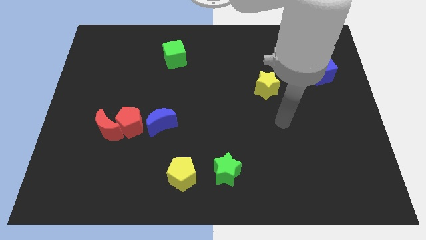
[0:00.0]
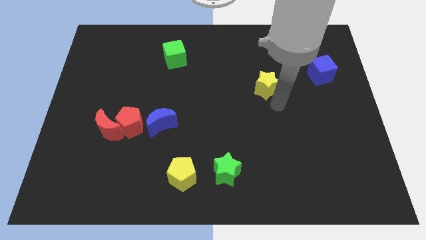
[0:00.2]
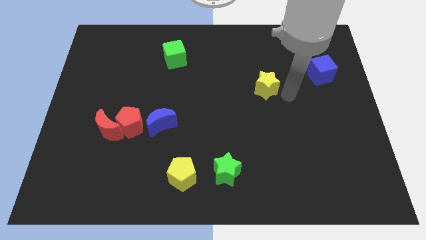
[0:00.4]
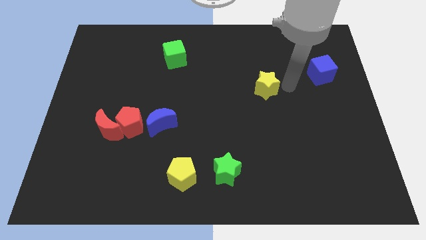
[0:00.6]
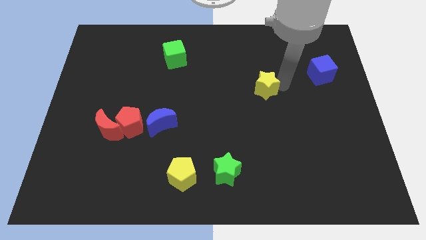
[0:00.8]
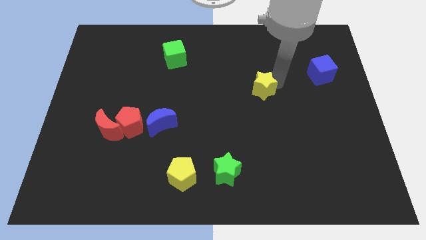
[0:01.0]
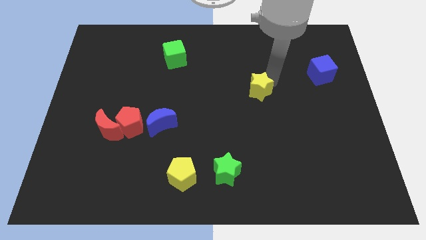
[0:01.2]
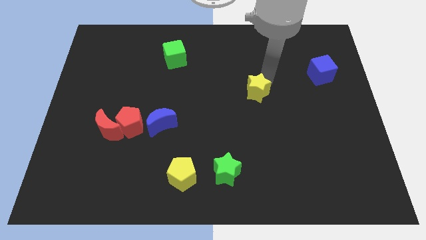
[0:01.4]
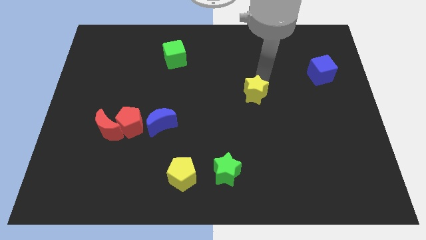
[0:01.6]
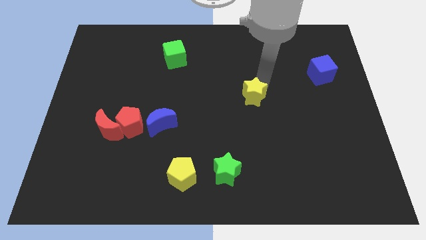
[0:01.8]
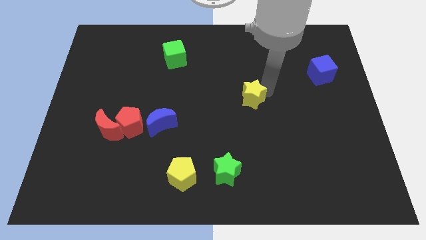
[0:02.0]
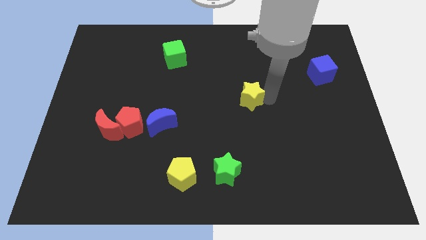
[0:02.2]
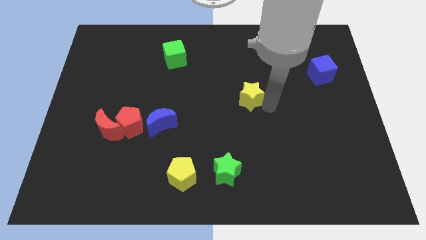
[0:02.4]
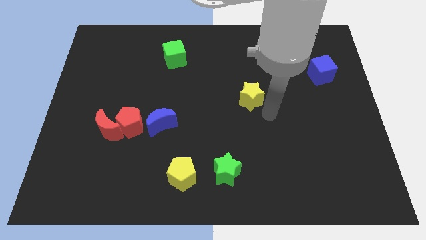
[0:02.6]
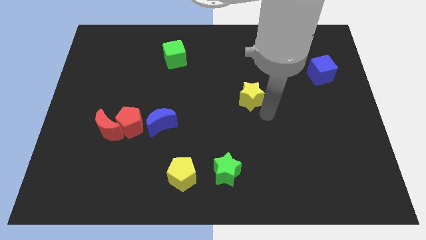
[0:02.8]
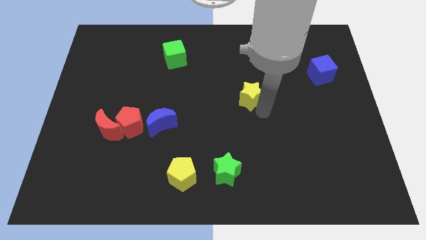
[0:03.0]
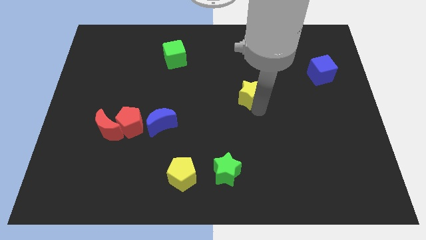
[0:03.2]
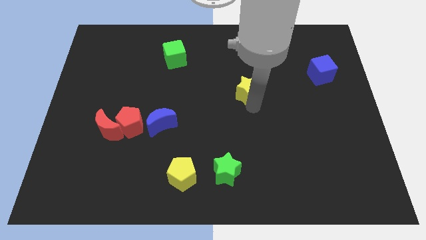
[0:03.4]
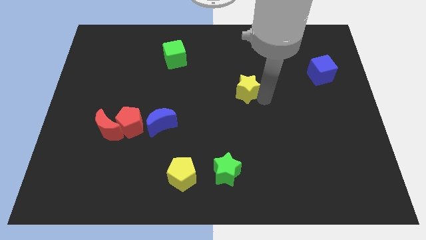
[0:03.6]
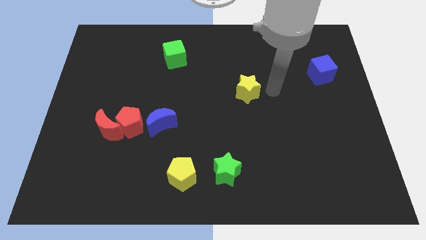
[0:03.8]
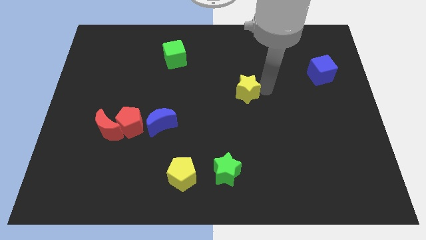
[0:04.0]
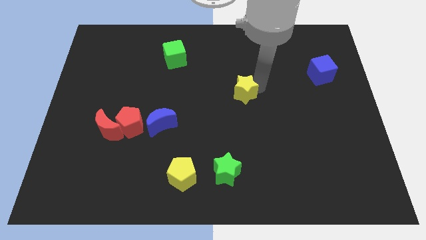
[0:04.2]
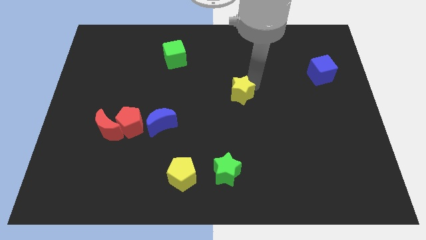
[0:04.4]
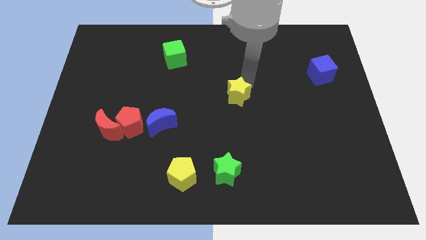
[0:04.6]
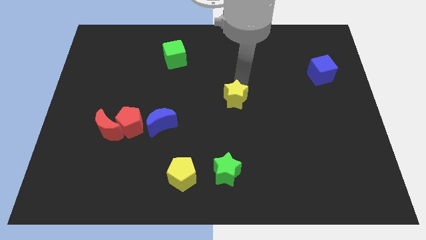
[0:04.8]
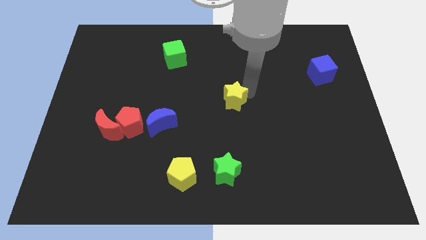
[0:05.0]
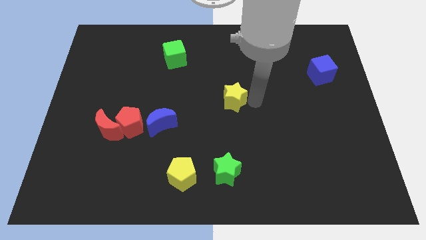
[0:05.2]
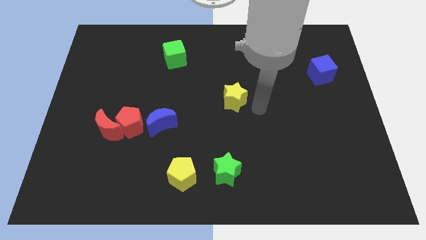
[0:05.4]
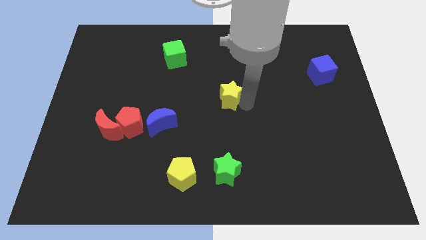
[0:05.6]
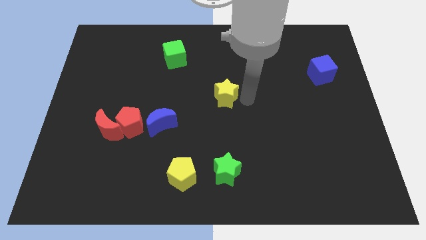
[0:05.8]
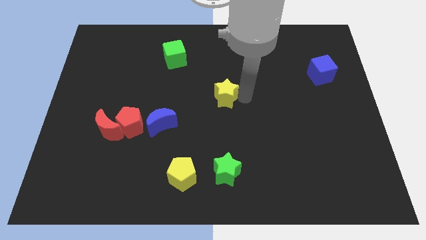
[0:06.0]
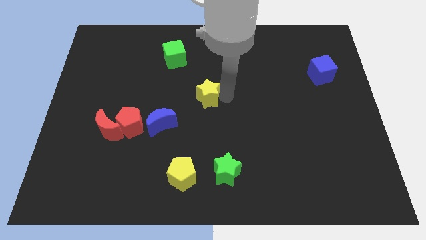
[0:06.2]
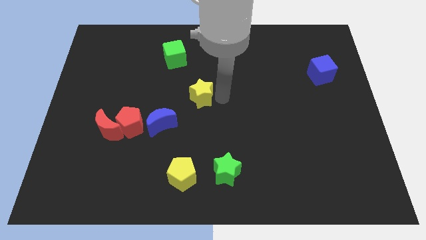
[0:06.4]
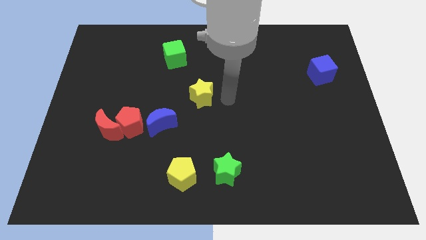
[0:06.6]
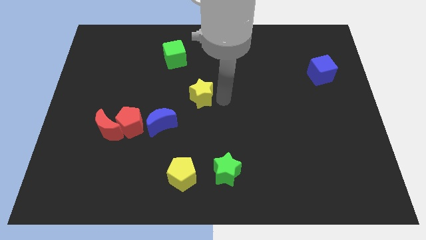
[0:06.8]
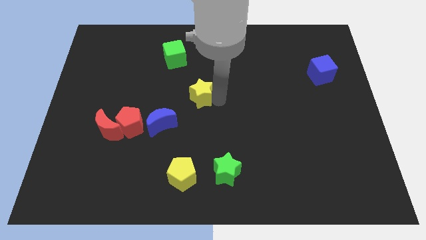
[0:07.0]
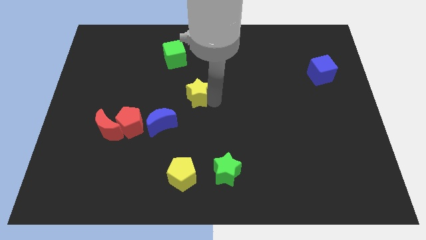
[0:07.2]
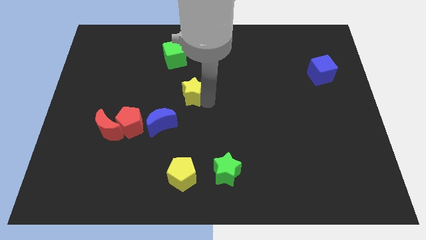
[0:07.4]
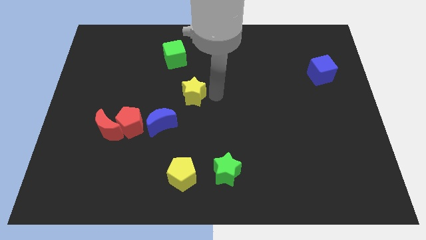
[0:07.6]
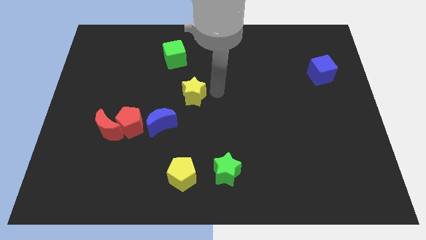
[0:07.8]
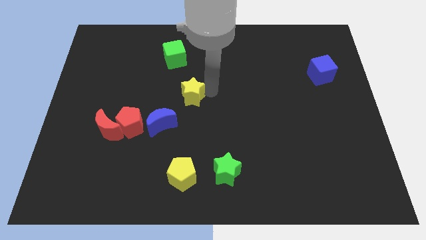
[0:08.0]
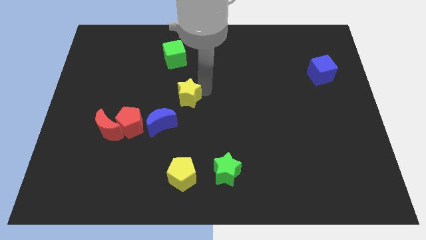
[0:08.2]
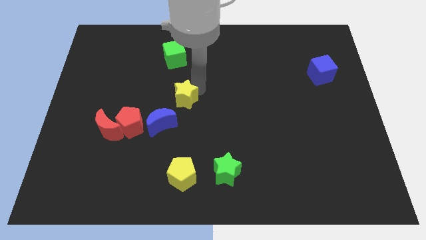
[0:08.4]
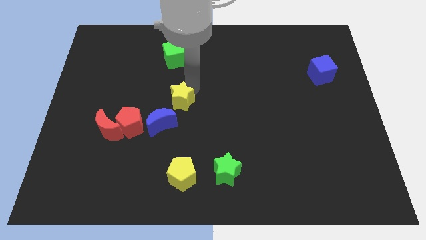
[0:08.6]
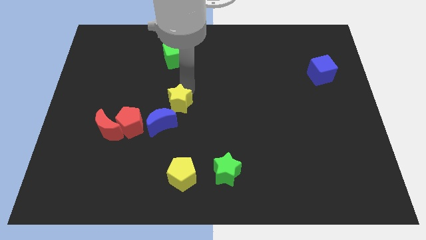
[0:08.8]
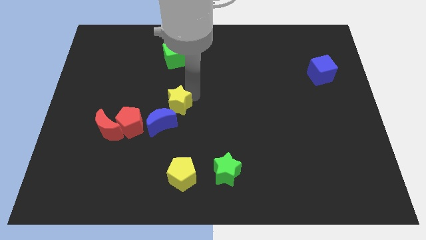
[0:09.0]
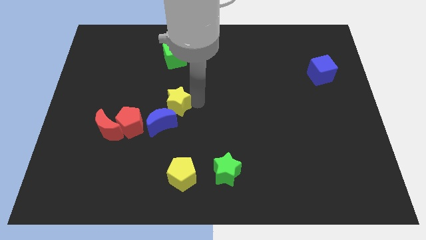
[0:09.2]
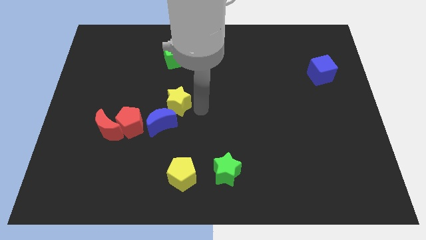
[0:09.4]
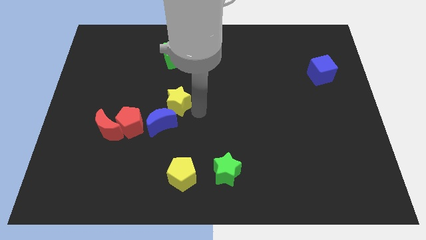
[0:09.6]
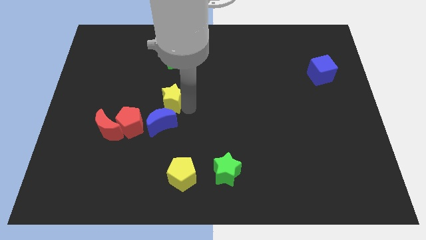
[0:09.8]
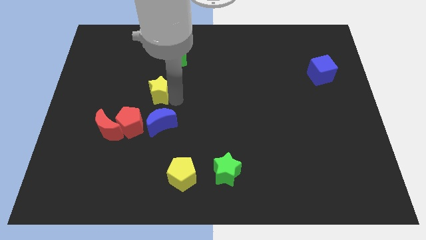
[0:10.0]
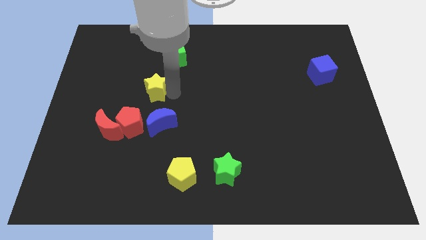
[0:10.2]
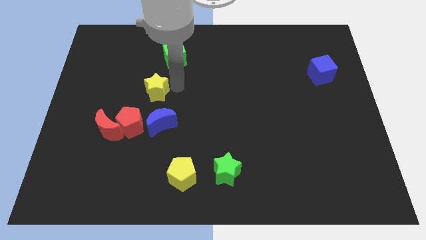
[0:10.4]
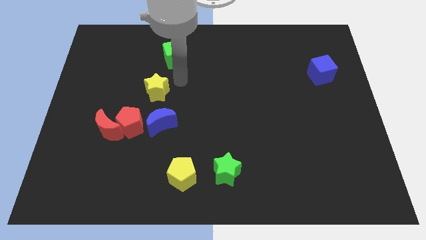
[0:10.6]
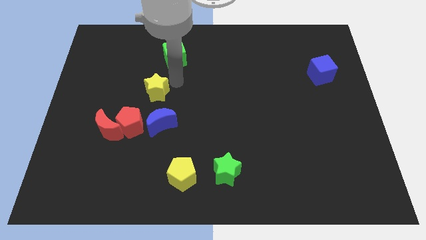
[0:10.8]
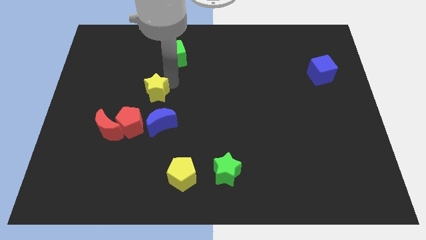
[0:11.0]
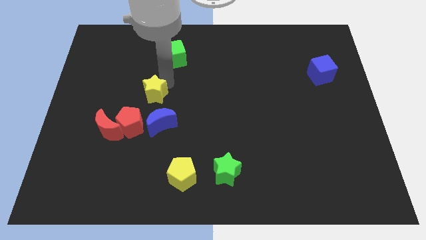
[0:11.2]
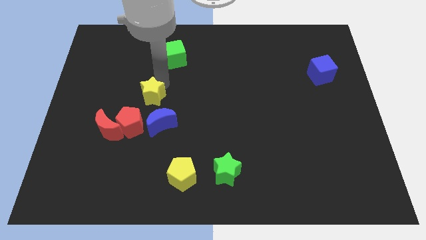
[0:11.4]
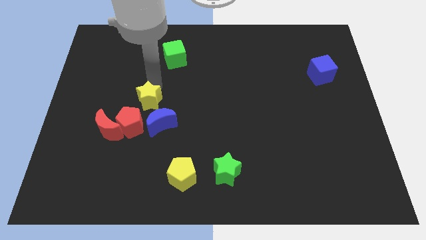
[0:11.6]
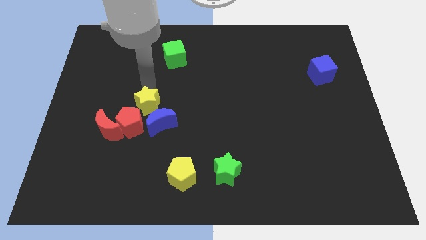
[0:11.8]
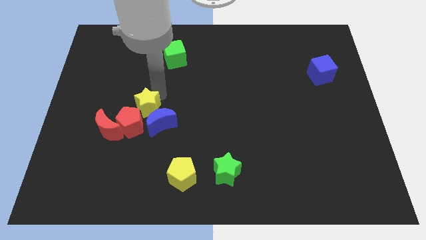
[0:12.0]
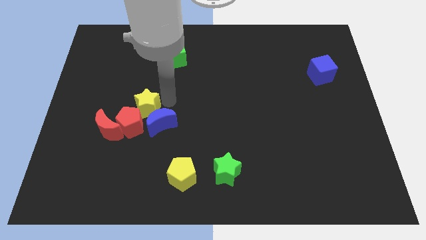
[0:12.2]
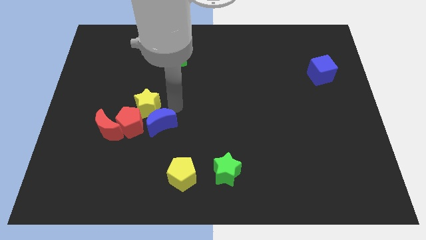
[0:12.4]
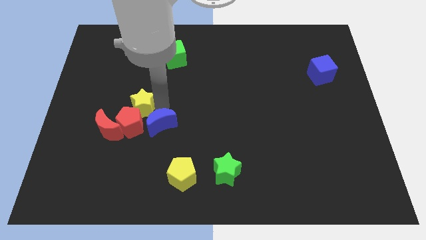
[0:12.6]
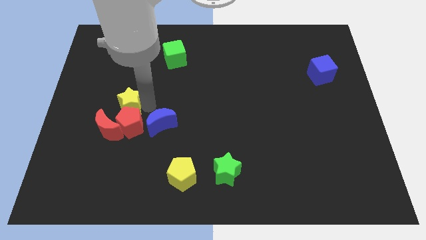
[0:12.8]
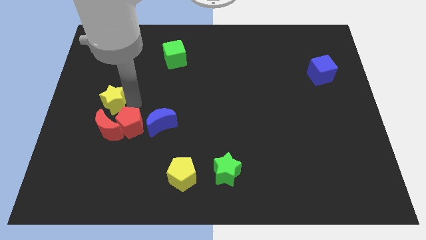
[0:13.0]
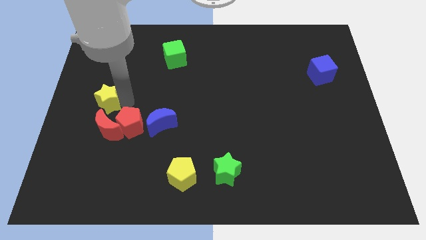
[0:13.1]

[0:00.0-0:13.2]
move the yellow star diagonally up and to the left of the red moon

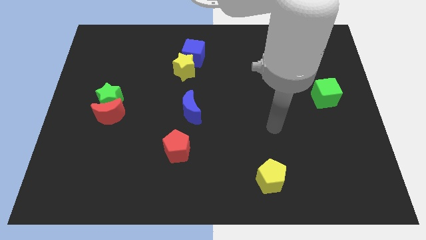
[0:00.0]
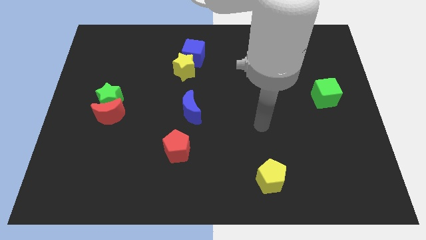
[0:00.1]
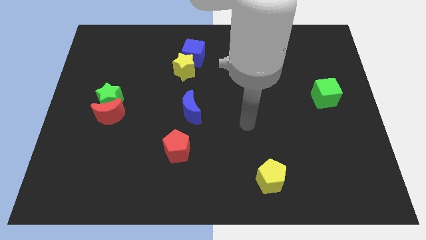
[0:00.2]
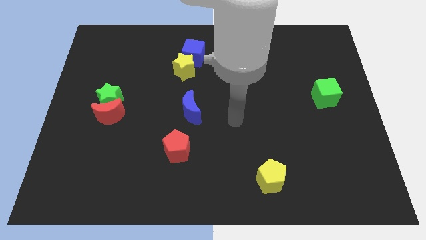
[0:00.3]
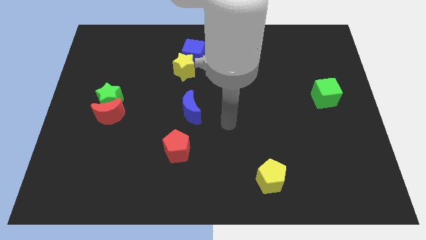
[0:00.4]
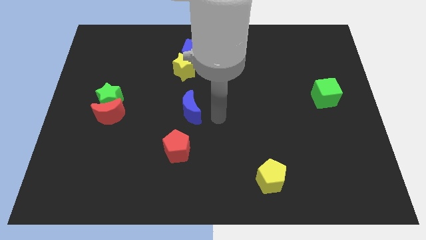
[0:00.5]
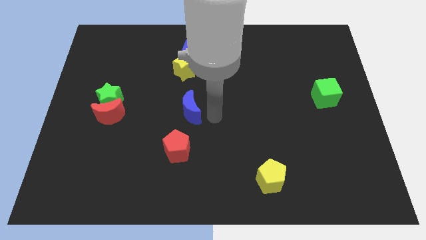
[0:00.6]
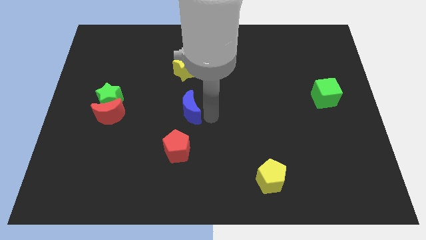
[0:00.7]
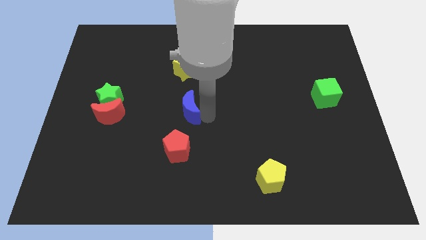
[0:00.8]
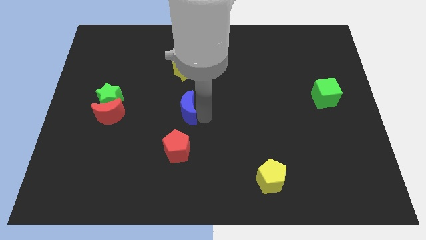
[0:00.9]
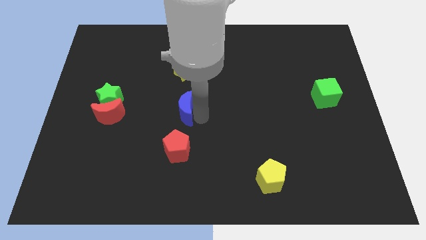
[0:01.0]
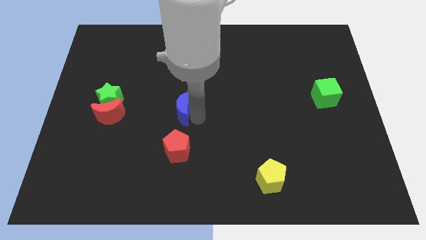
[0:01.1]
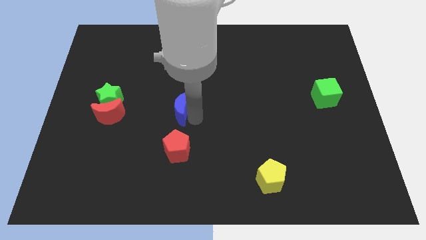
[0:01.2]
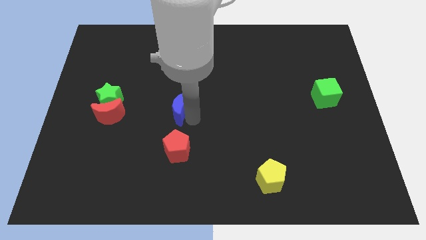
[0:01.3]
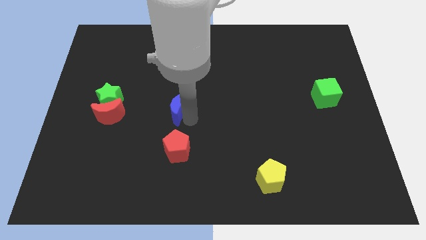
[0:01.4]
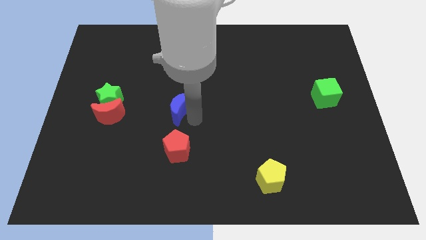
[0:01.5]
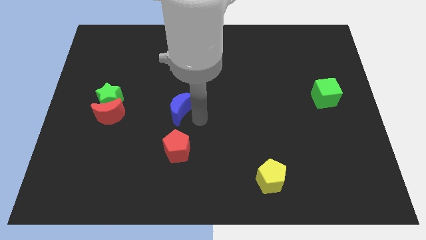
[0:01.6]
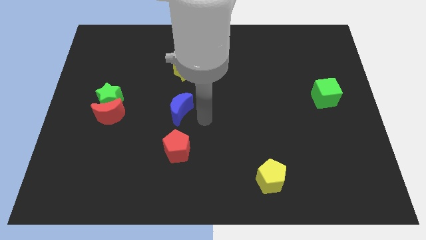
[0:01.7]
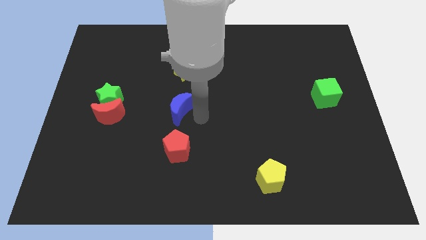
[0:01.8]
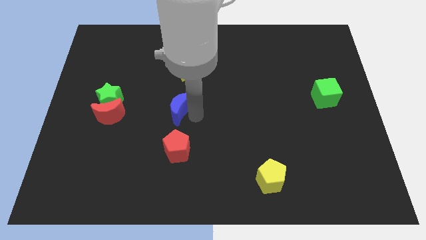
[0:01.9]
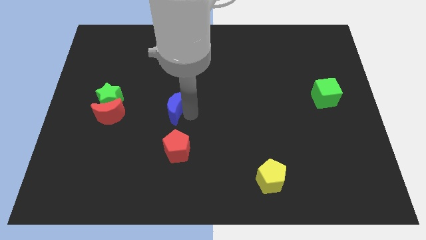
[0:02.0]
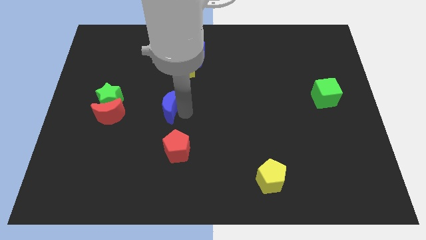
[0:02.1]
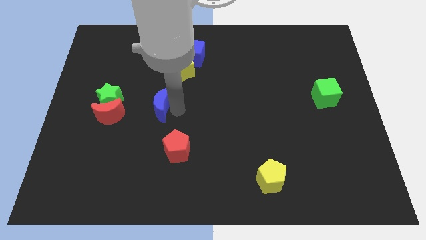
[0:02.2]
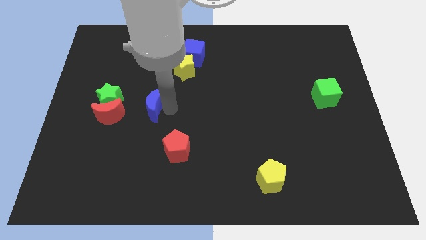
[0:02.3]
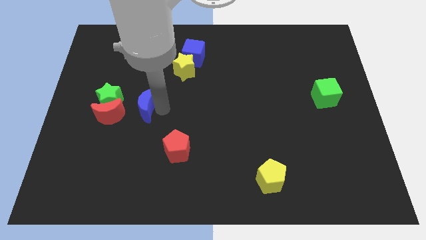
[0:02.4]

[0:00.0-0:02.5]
slide the blue moon to the top right side of the red moon
